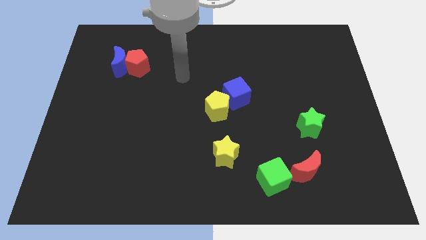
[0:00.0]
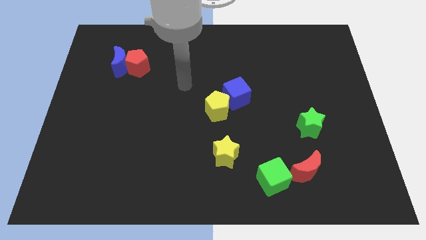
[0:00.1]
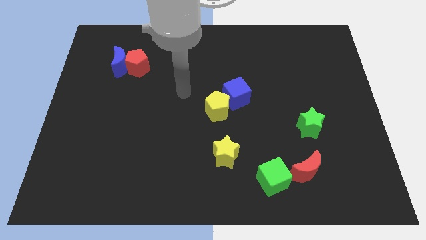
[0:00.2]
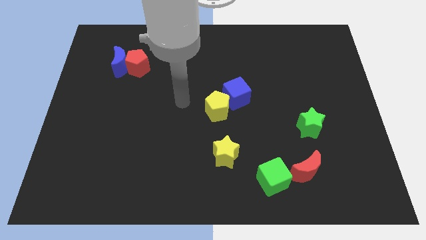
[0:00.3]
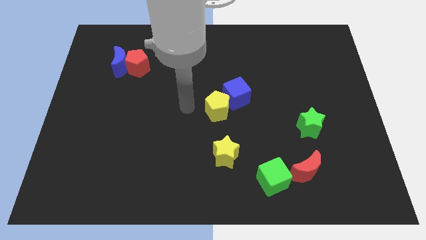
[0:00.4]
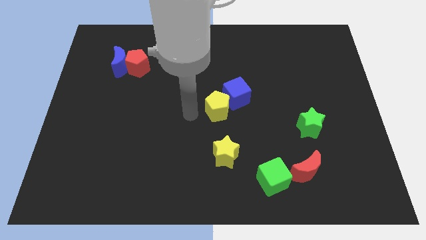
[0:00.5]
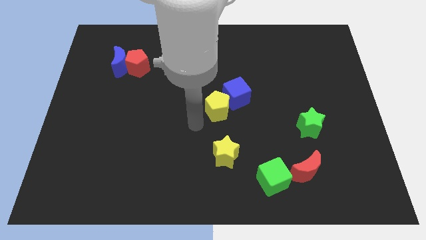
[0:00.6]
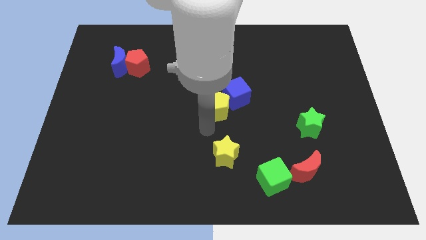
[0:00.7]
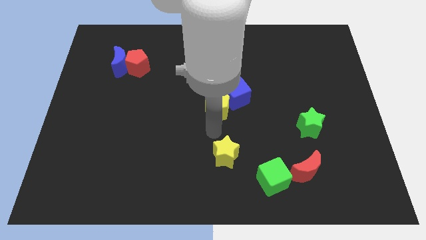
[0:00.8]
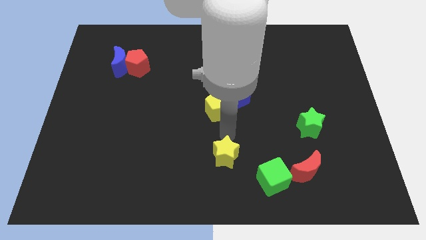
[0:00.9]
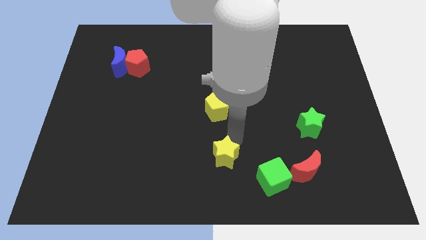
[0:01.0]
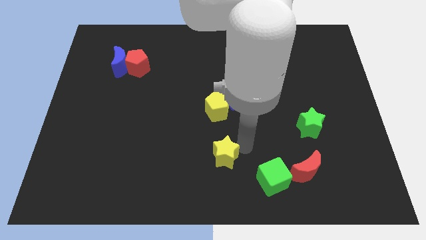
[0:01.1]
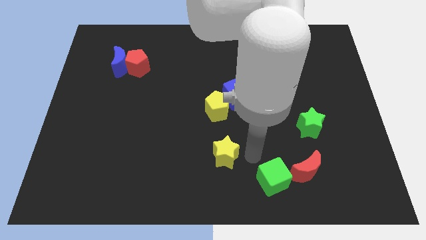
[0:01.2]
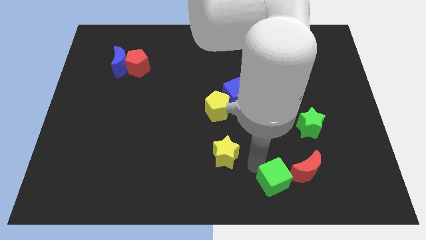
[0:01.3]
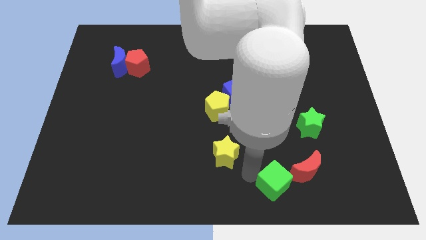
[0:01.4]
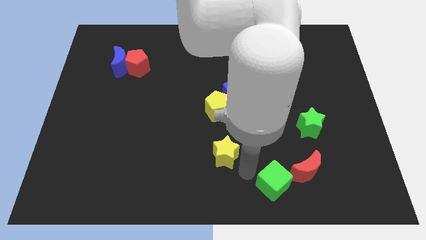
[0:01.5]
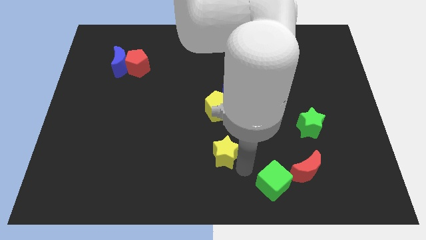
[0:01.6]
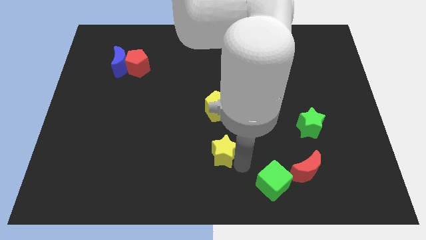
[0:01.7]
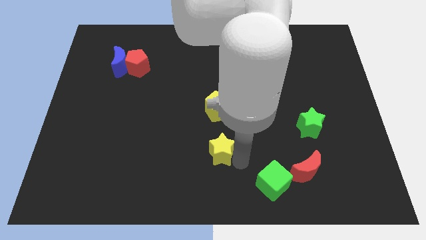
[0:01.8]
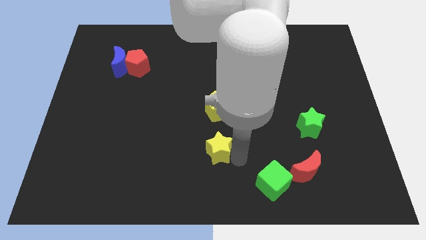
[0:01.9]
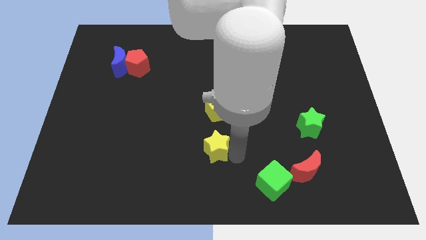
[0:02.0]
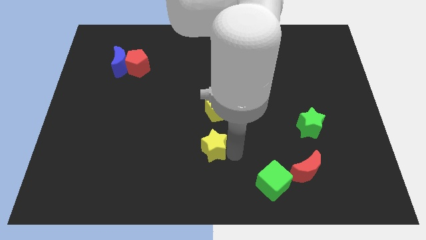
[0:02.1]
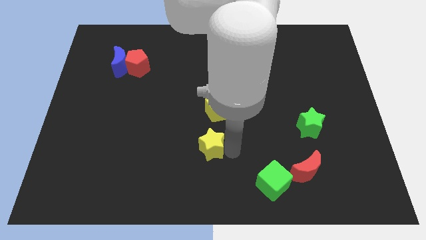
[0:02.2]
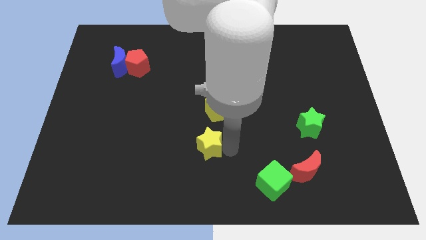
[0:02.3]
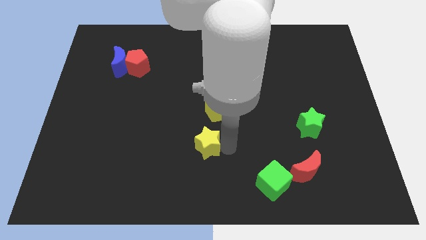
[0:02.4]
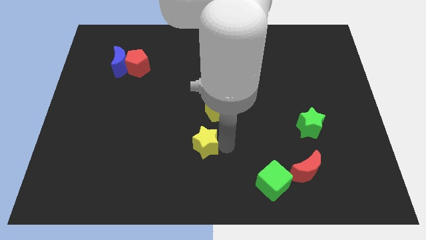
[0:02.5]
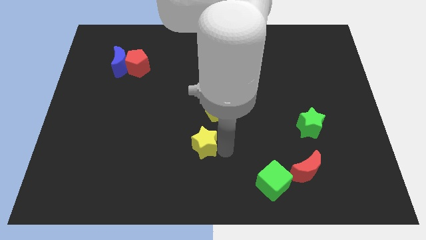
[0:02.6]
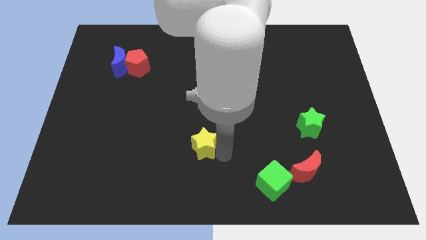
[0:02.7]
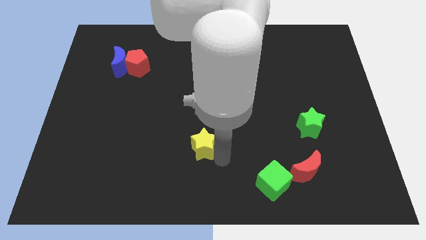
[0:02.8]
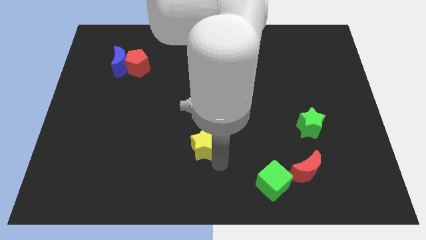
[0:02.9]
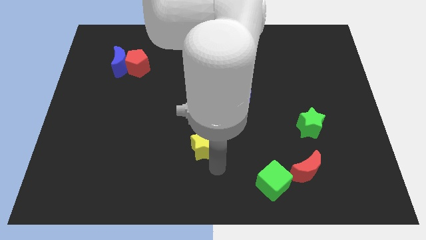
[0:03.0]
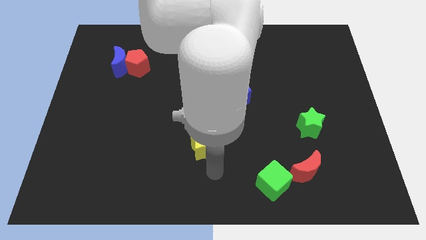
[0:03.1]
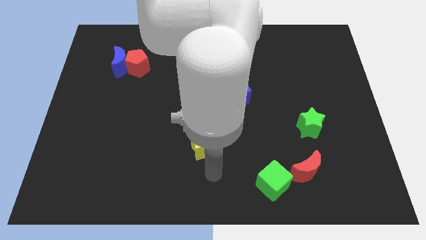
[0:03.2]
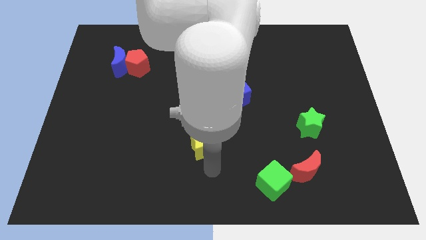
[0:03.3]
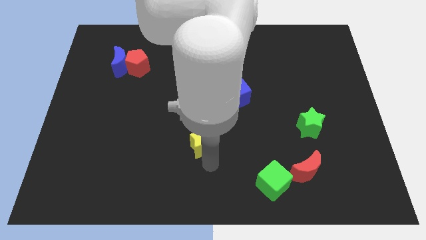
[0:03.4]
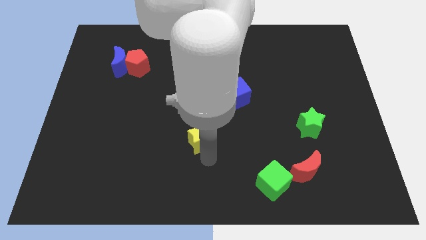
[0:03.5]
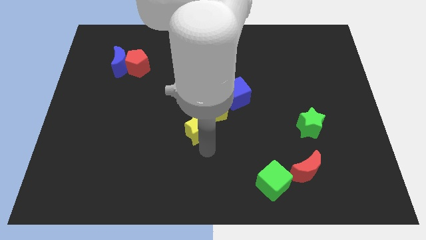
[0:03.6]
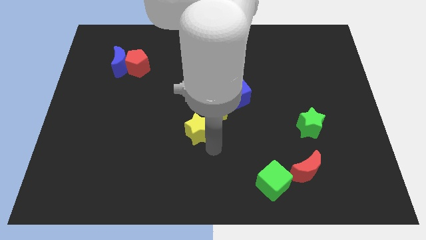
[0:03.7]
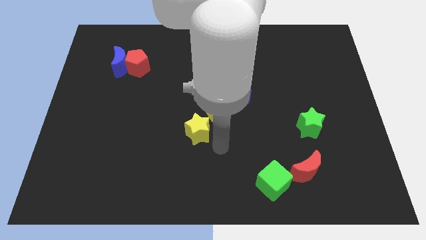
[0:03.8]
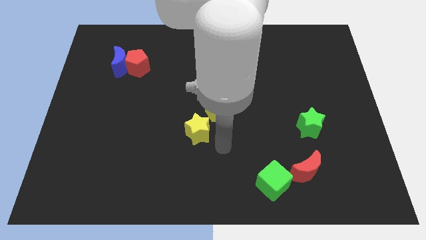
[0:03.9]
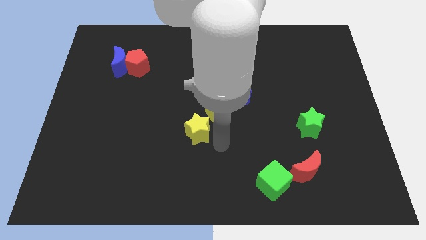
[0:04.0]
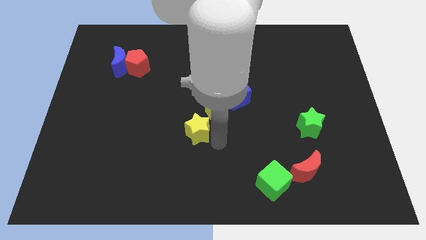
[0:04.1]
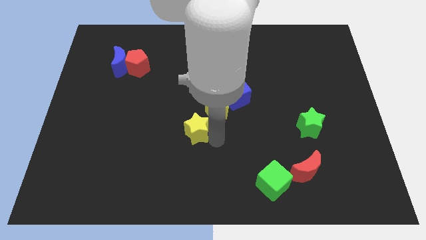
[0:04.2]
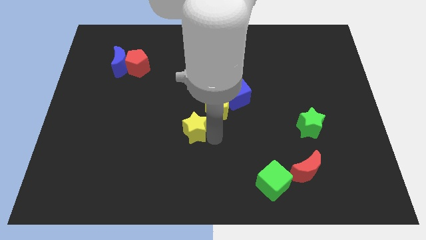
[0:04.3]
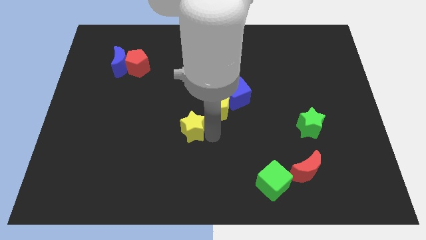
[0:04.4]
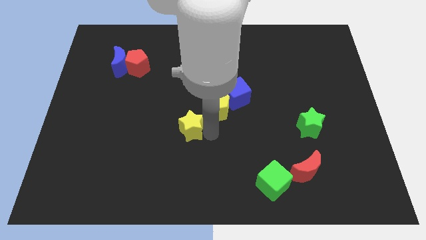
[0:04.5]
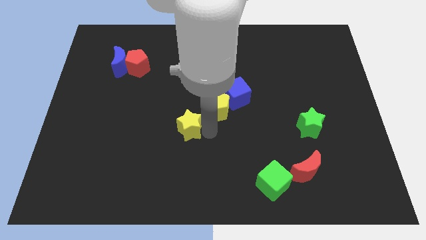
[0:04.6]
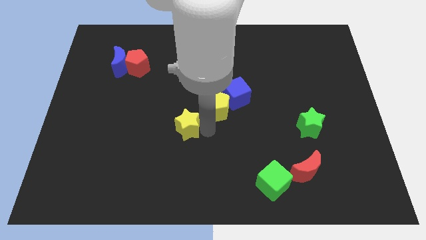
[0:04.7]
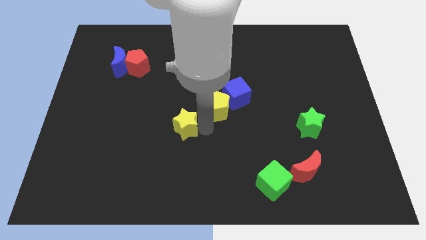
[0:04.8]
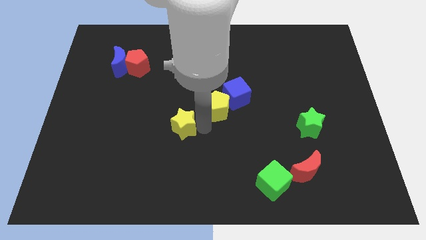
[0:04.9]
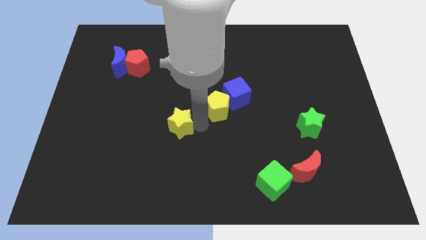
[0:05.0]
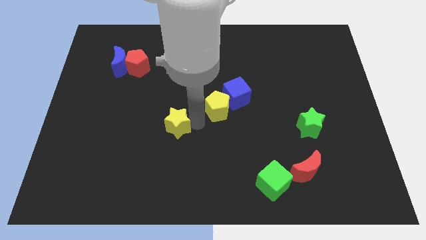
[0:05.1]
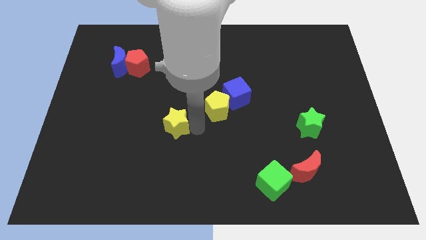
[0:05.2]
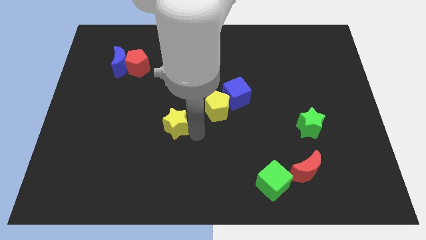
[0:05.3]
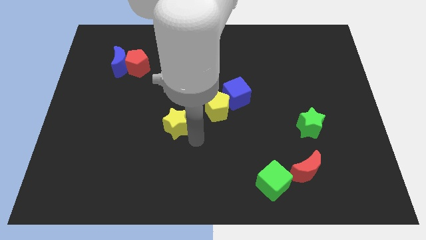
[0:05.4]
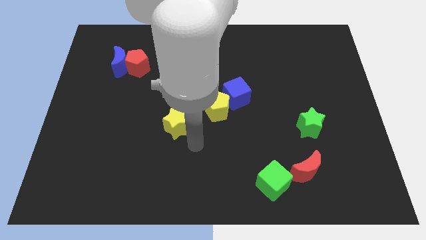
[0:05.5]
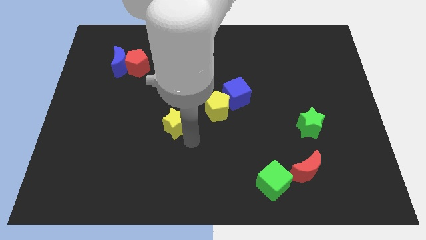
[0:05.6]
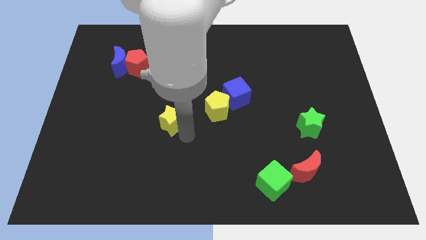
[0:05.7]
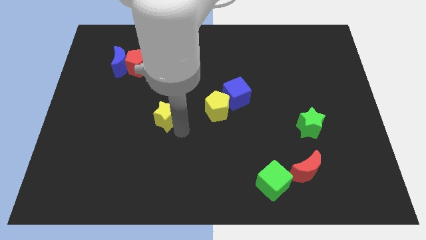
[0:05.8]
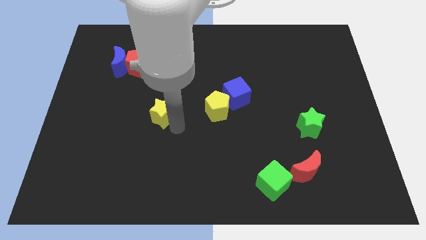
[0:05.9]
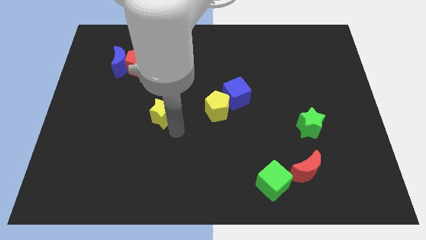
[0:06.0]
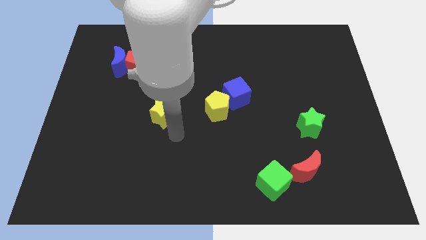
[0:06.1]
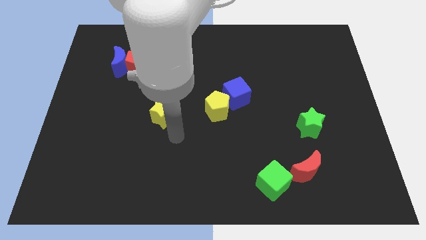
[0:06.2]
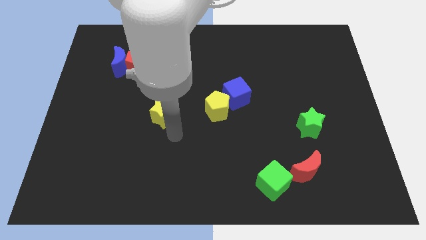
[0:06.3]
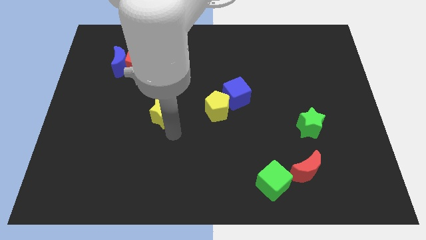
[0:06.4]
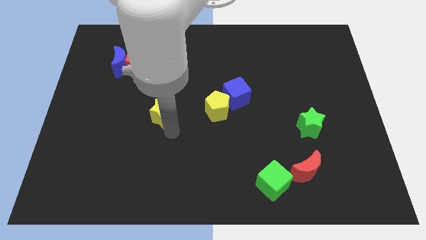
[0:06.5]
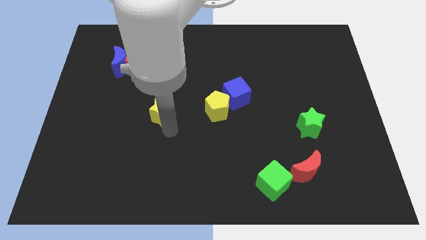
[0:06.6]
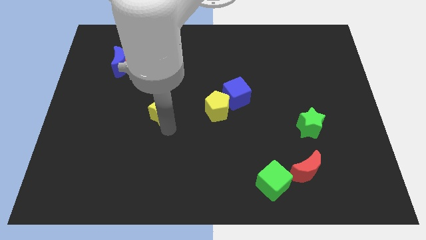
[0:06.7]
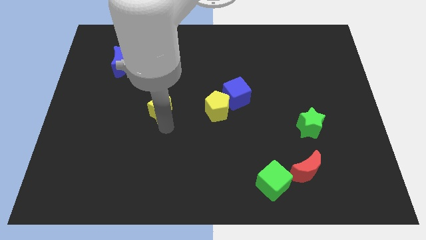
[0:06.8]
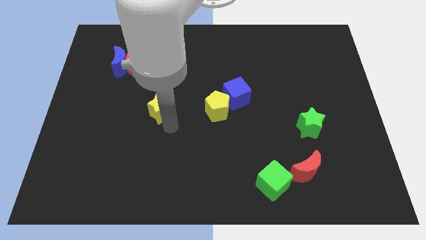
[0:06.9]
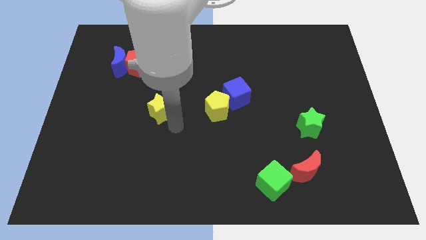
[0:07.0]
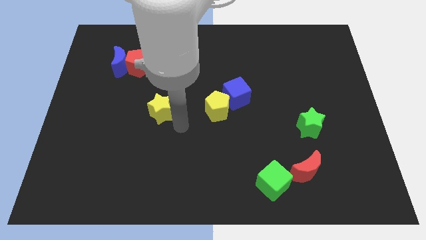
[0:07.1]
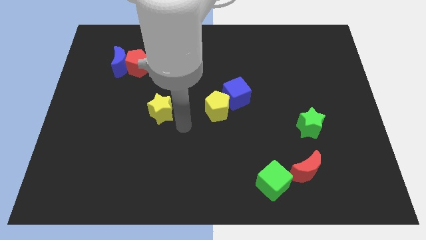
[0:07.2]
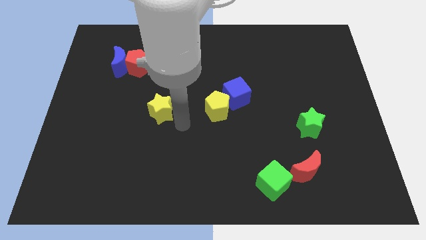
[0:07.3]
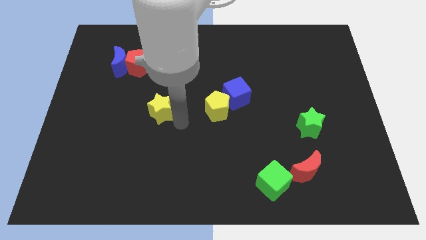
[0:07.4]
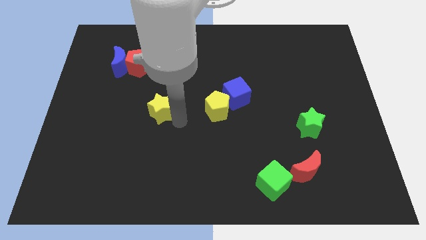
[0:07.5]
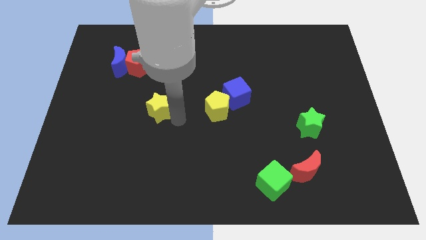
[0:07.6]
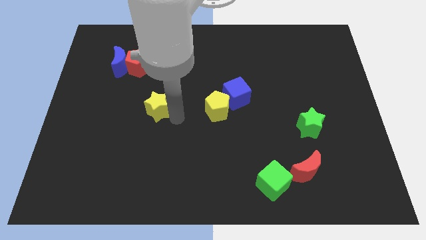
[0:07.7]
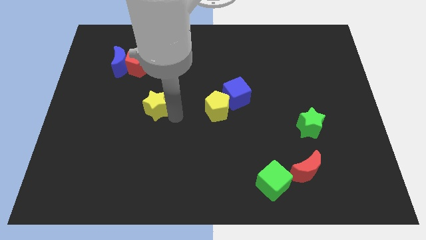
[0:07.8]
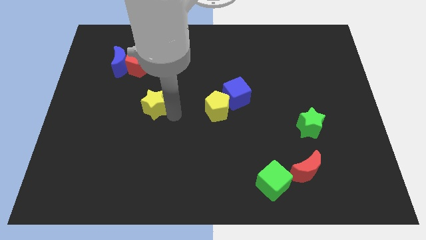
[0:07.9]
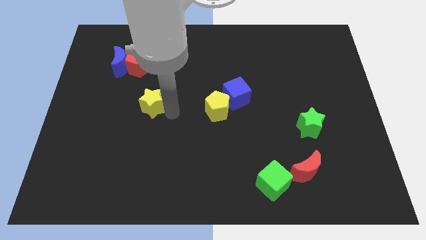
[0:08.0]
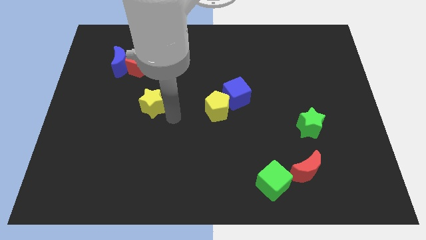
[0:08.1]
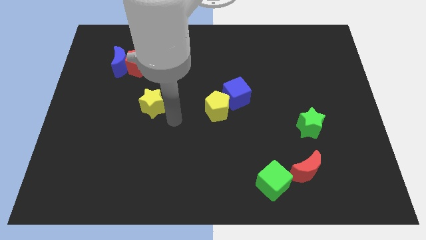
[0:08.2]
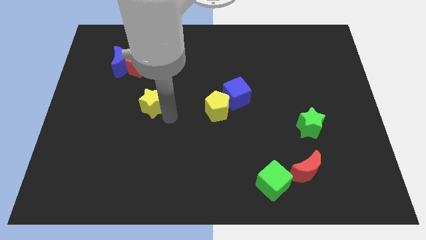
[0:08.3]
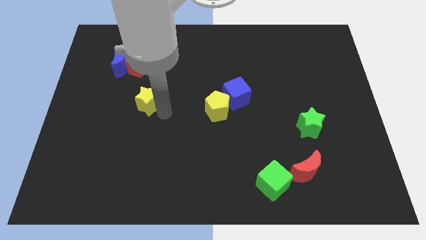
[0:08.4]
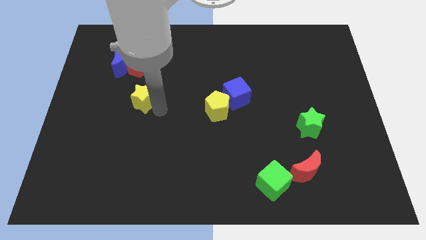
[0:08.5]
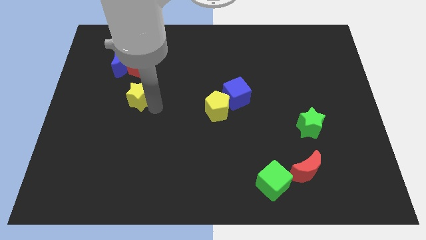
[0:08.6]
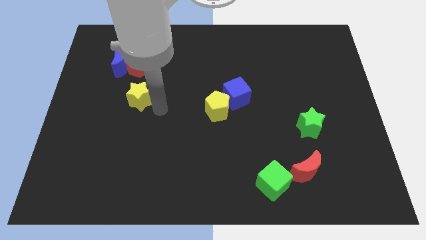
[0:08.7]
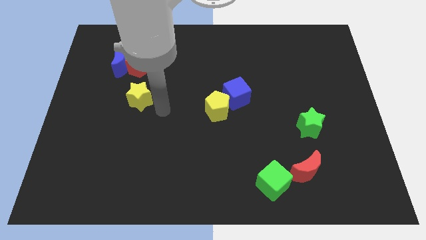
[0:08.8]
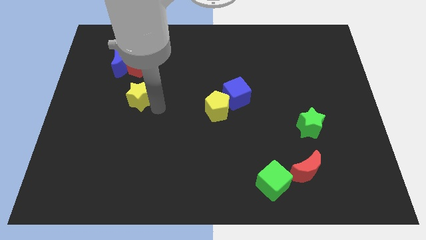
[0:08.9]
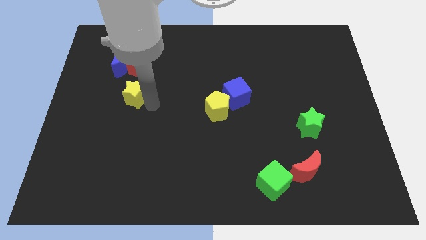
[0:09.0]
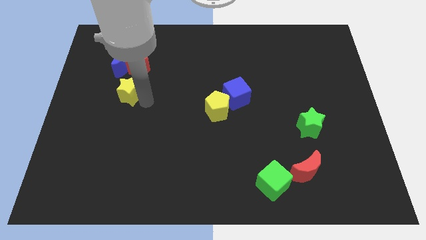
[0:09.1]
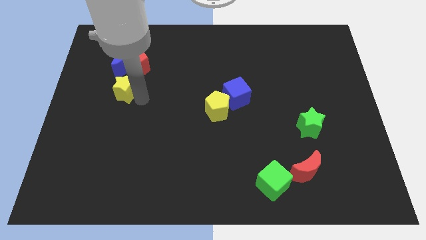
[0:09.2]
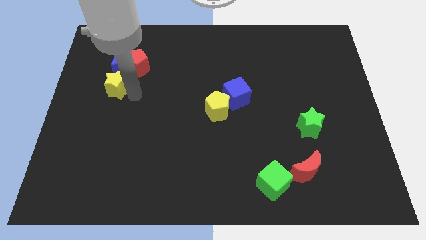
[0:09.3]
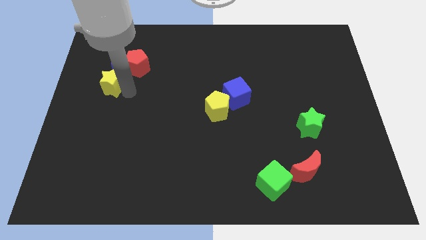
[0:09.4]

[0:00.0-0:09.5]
push the yellow star to the bottom left side of the blue moon
